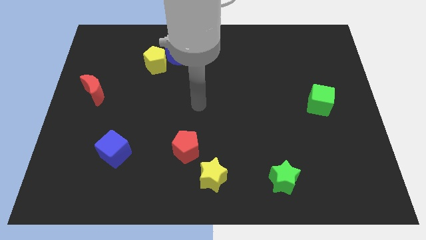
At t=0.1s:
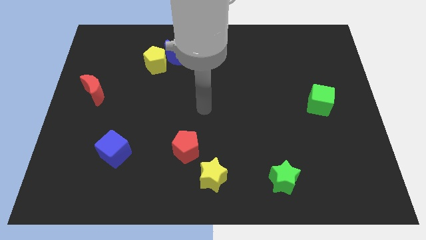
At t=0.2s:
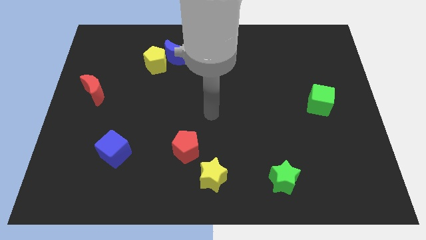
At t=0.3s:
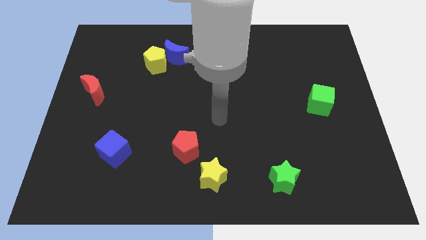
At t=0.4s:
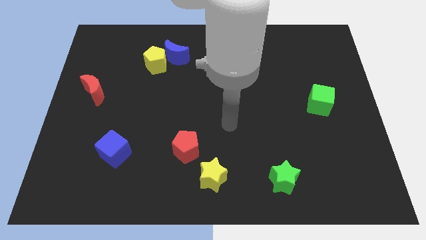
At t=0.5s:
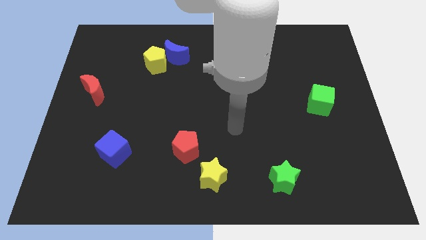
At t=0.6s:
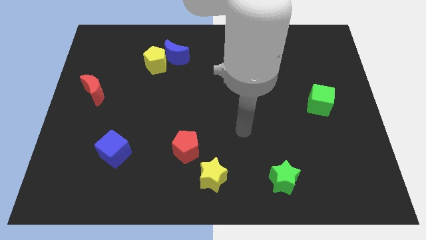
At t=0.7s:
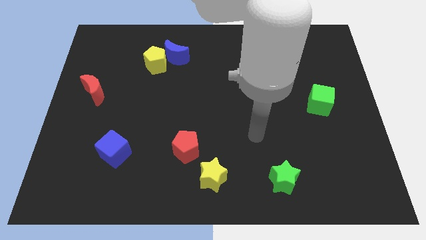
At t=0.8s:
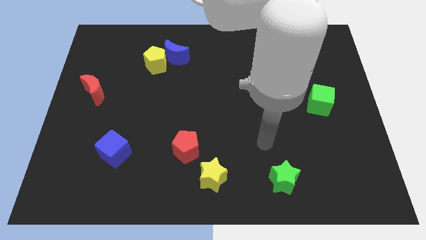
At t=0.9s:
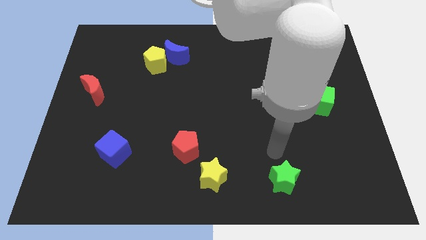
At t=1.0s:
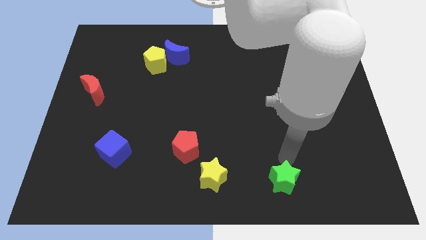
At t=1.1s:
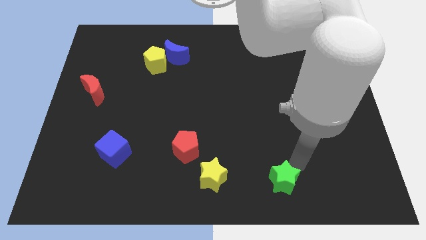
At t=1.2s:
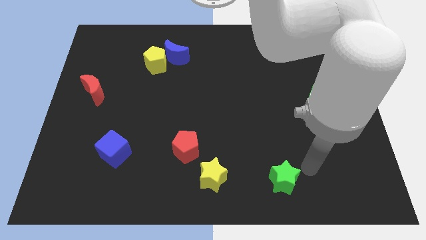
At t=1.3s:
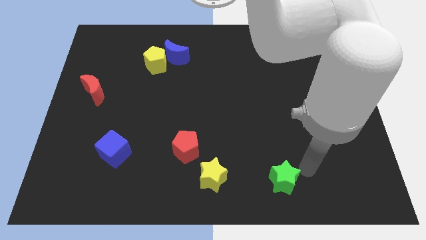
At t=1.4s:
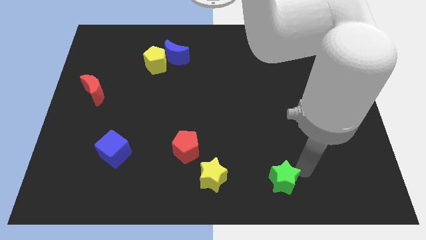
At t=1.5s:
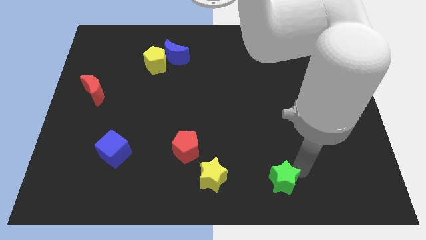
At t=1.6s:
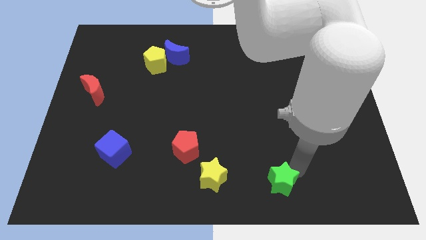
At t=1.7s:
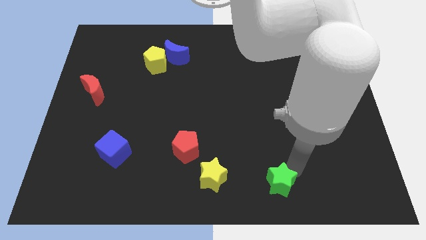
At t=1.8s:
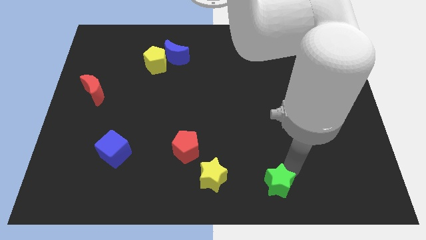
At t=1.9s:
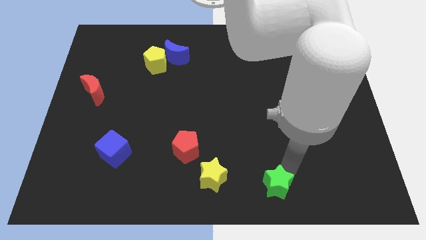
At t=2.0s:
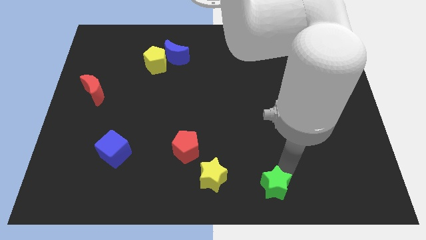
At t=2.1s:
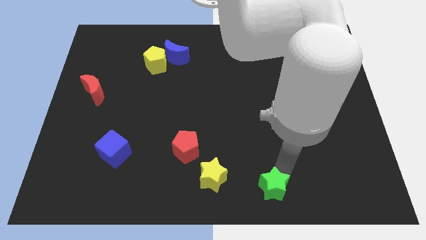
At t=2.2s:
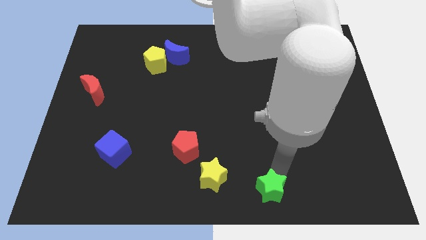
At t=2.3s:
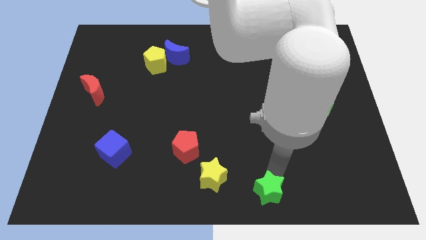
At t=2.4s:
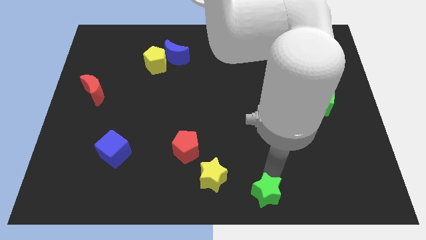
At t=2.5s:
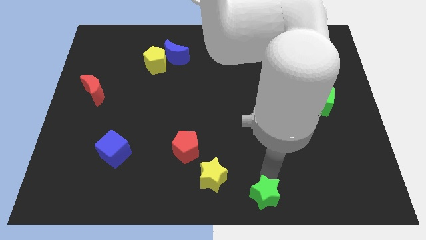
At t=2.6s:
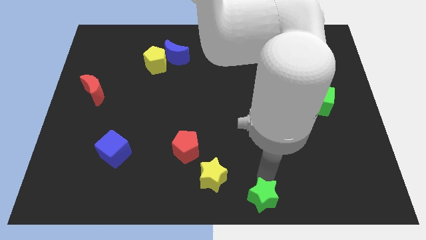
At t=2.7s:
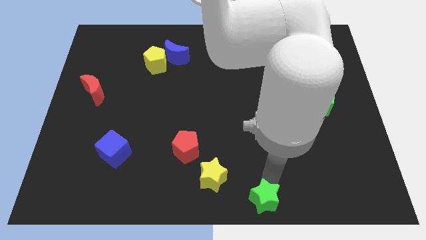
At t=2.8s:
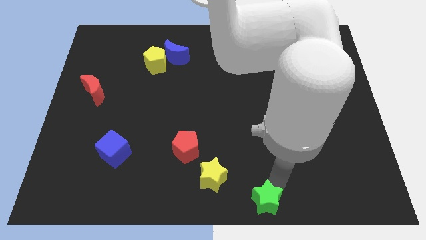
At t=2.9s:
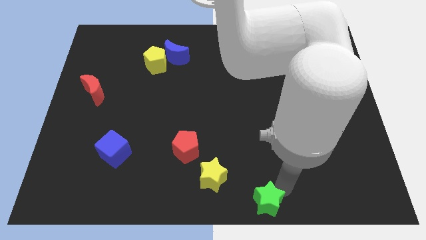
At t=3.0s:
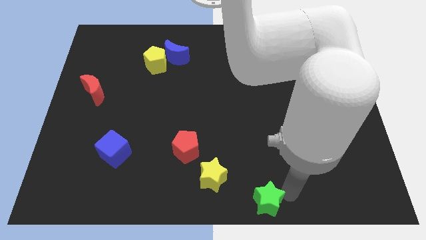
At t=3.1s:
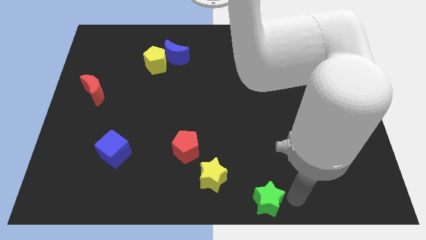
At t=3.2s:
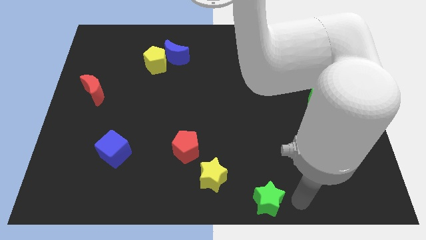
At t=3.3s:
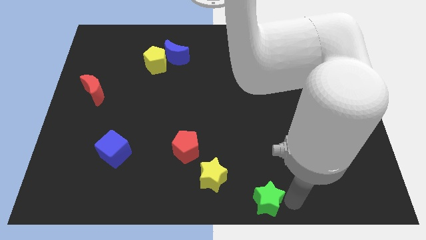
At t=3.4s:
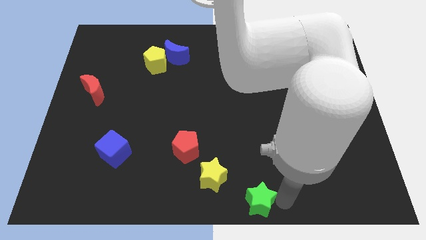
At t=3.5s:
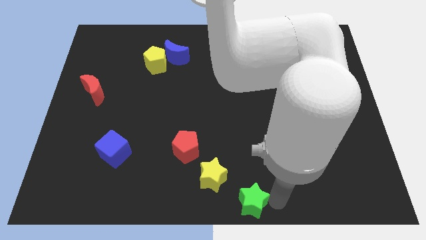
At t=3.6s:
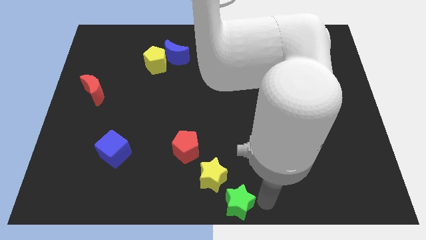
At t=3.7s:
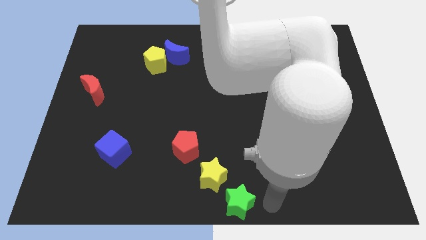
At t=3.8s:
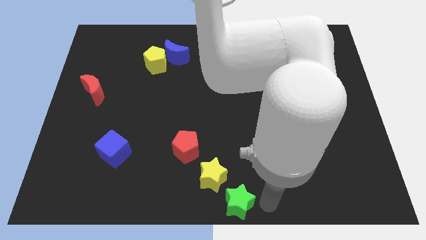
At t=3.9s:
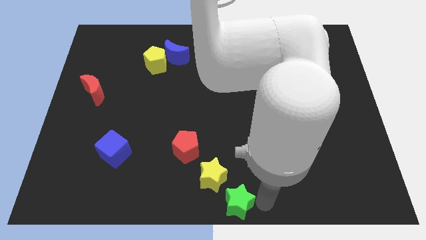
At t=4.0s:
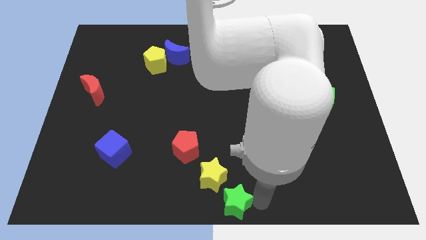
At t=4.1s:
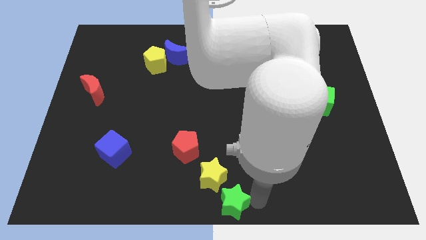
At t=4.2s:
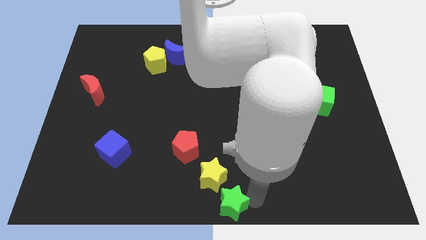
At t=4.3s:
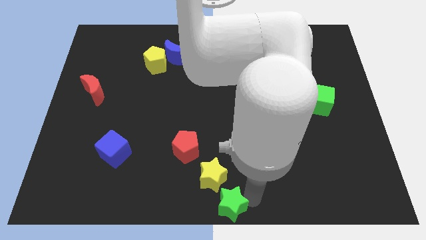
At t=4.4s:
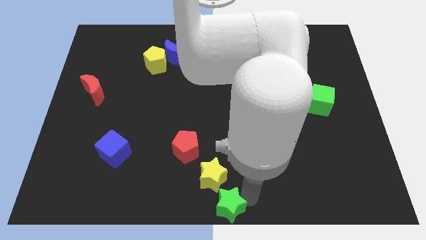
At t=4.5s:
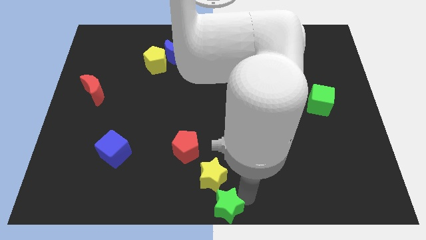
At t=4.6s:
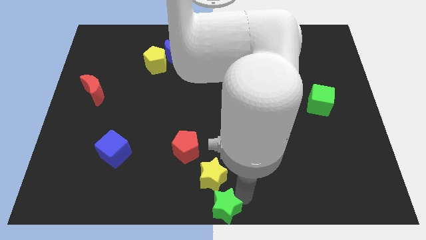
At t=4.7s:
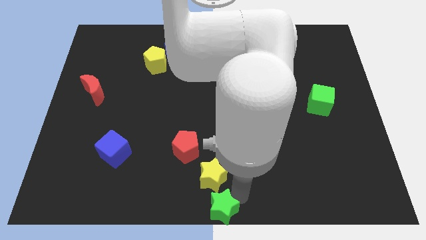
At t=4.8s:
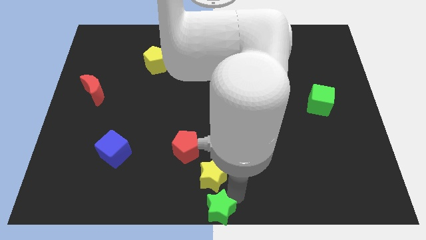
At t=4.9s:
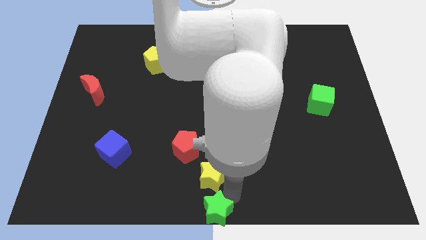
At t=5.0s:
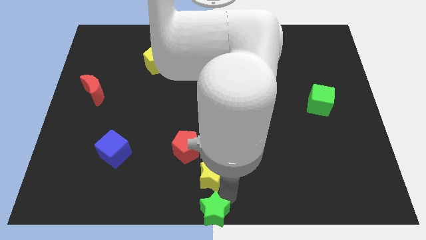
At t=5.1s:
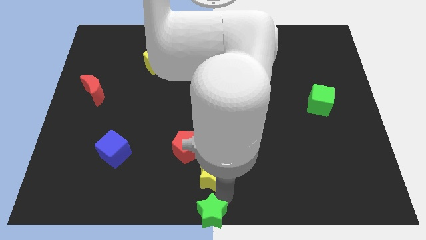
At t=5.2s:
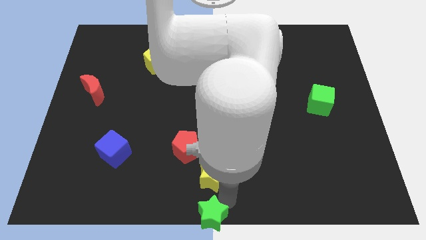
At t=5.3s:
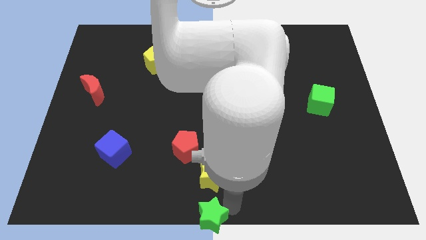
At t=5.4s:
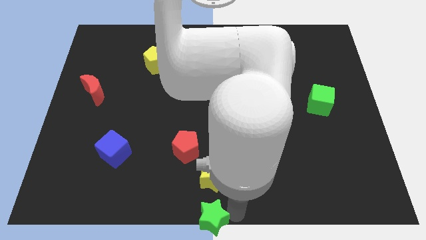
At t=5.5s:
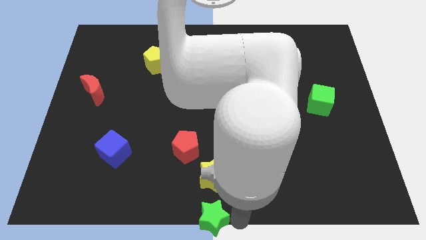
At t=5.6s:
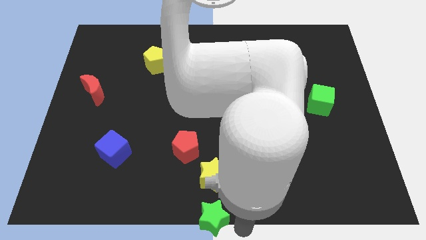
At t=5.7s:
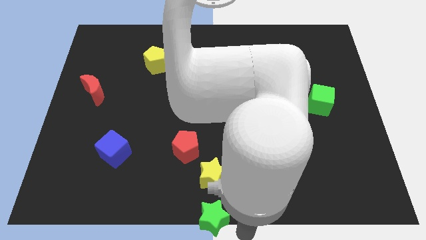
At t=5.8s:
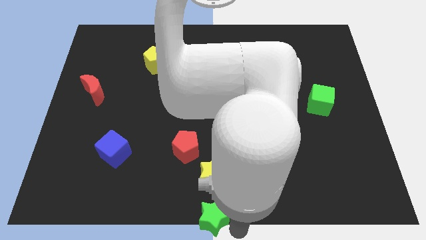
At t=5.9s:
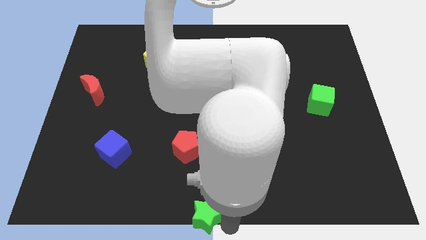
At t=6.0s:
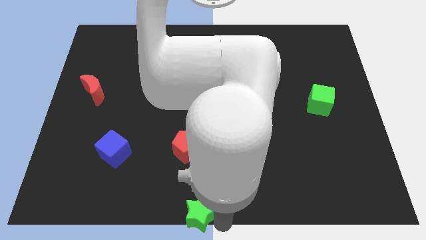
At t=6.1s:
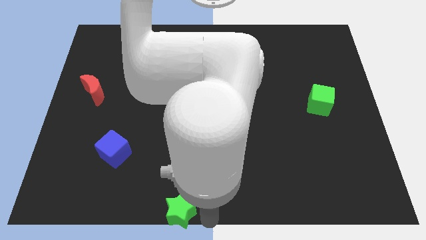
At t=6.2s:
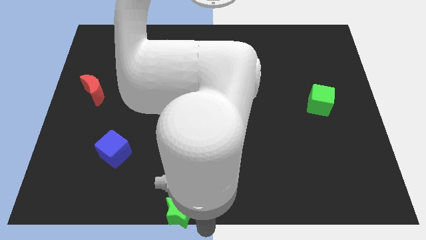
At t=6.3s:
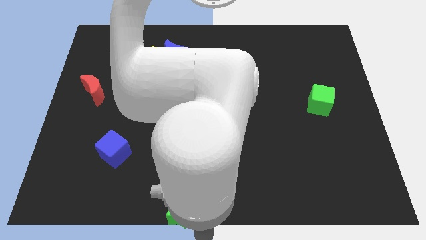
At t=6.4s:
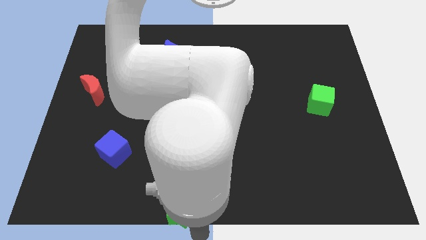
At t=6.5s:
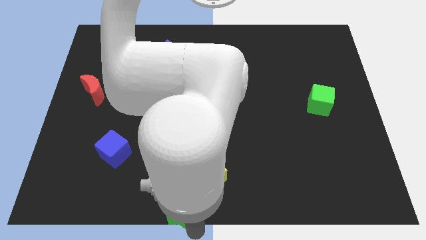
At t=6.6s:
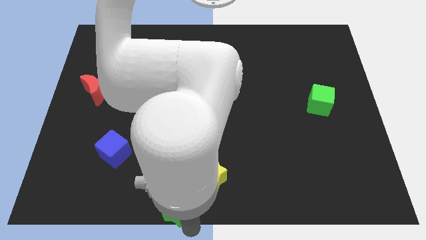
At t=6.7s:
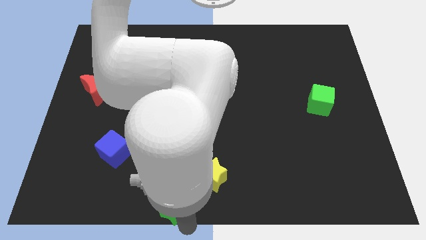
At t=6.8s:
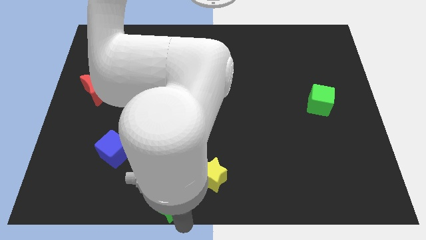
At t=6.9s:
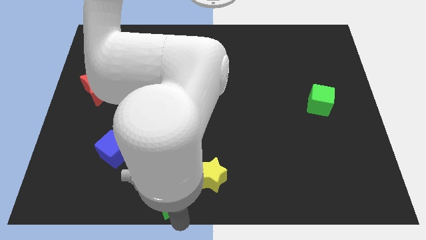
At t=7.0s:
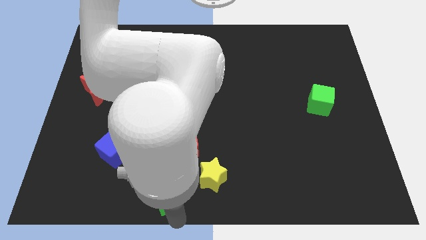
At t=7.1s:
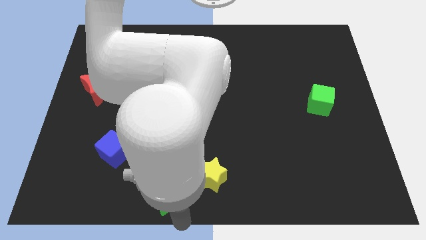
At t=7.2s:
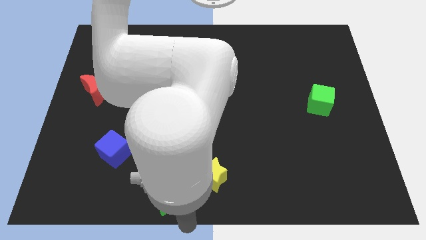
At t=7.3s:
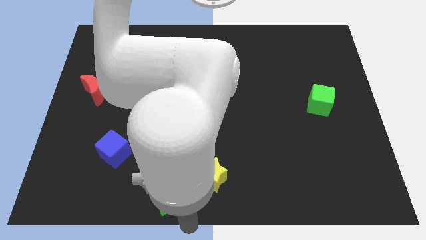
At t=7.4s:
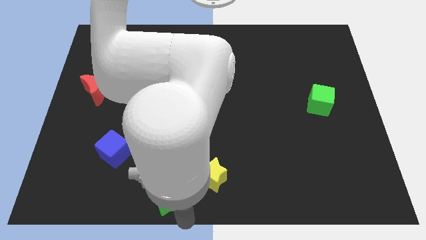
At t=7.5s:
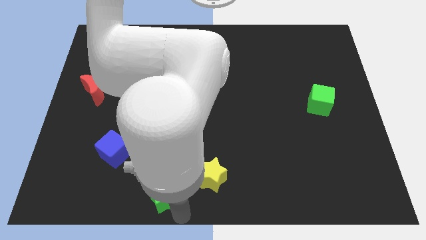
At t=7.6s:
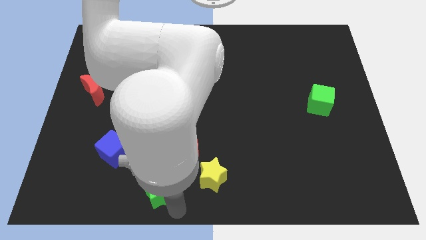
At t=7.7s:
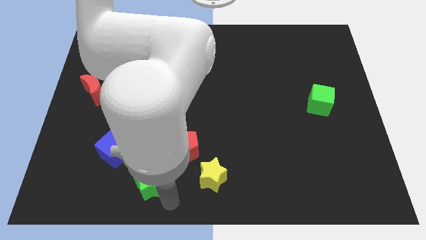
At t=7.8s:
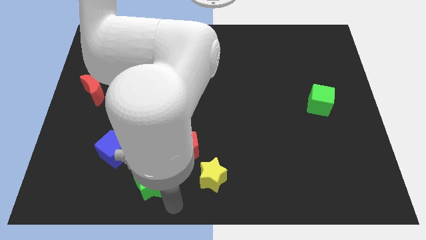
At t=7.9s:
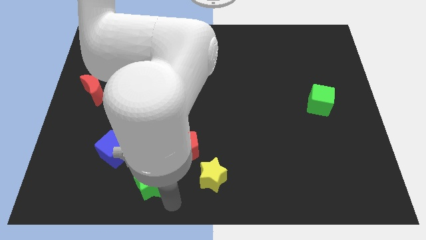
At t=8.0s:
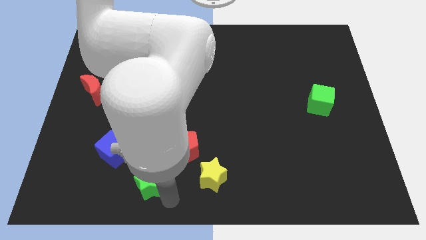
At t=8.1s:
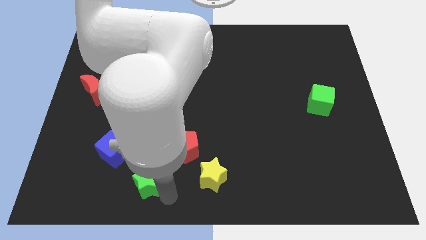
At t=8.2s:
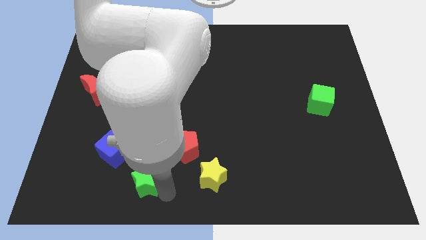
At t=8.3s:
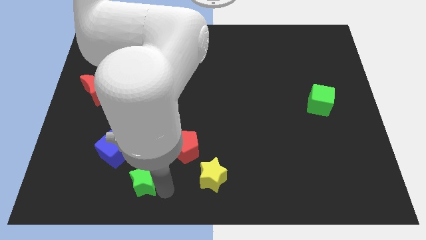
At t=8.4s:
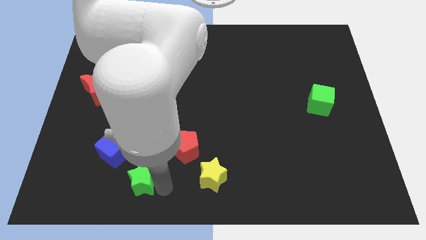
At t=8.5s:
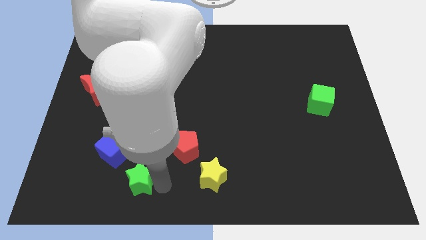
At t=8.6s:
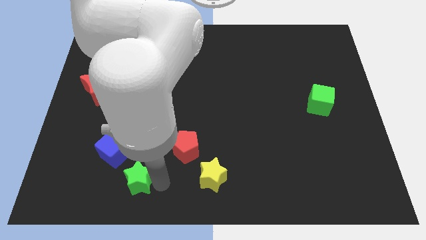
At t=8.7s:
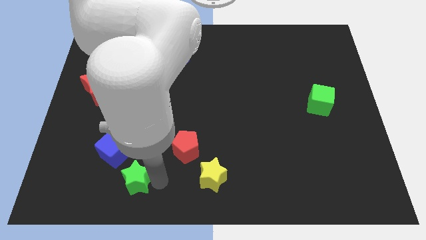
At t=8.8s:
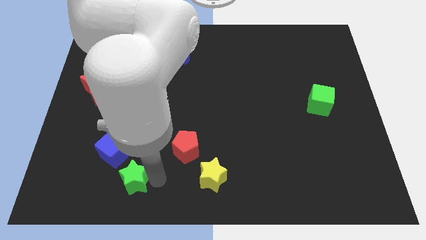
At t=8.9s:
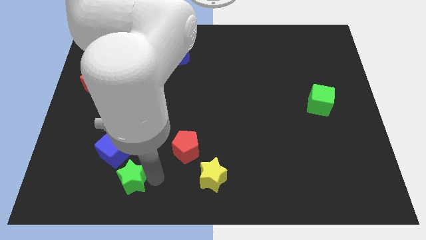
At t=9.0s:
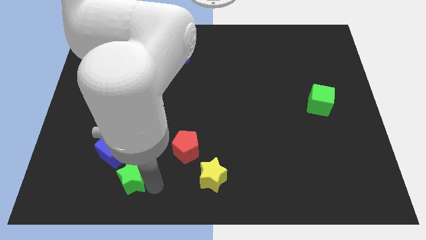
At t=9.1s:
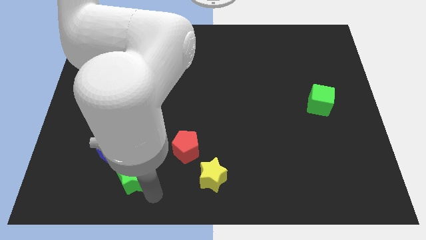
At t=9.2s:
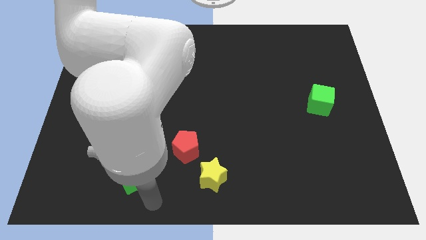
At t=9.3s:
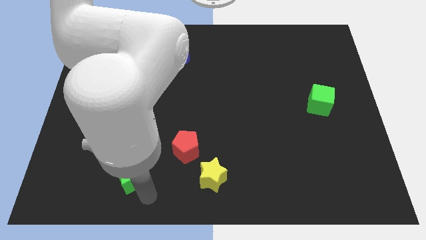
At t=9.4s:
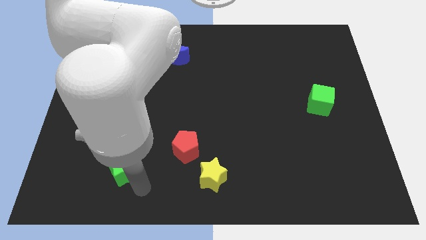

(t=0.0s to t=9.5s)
move the green star towards the blue cube
